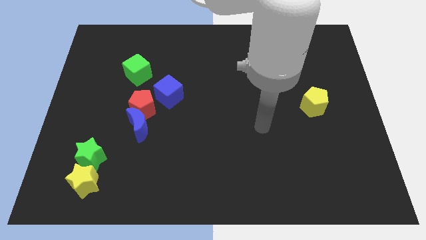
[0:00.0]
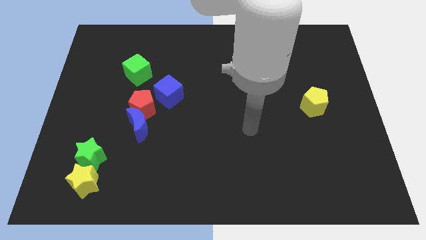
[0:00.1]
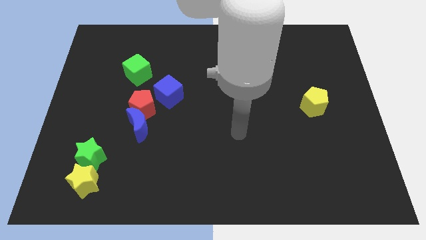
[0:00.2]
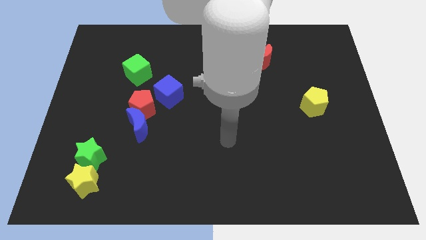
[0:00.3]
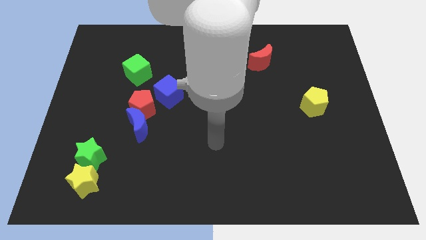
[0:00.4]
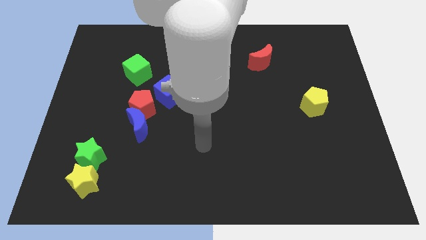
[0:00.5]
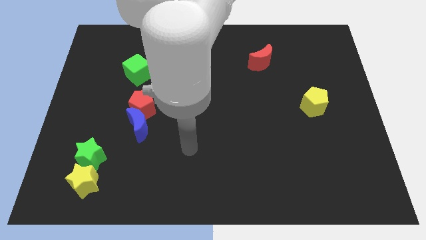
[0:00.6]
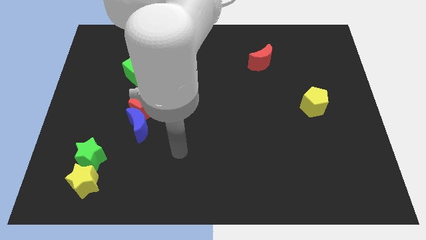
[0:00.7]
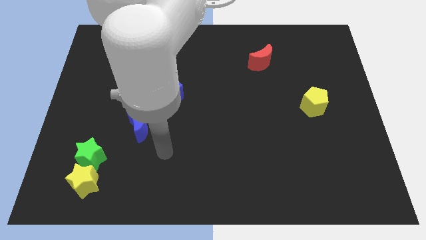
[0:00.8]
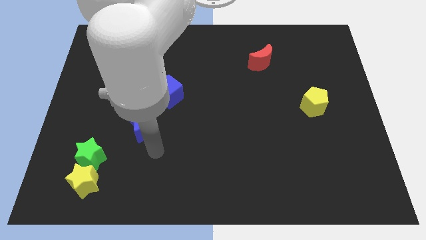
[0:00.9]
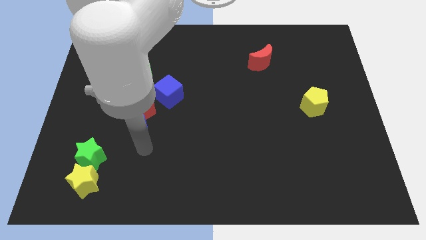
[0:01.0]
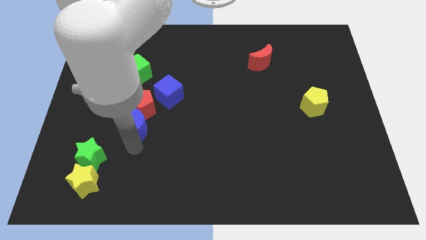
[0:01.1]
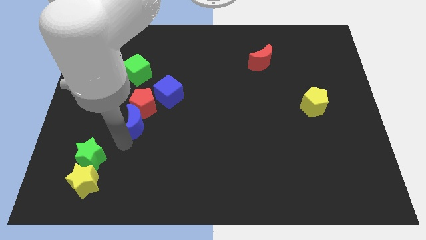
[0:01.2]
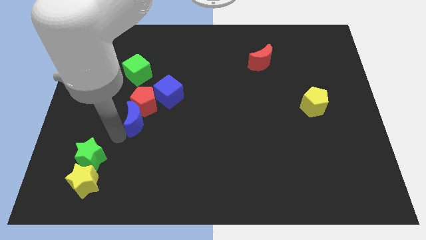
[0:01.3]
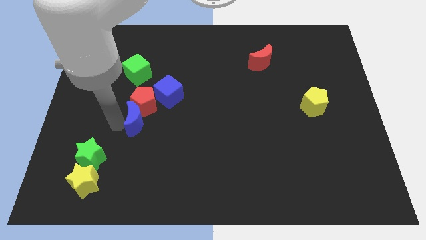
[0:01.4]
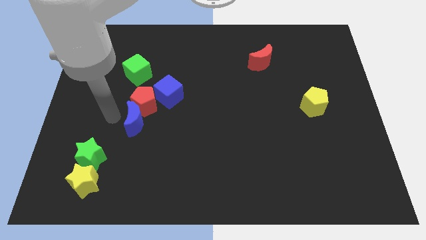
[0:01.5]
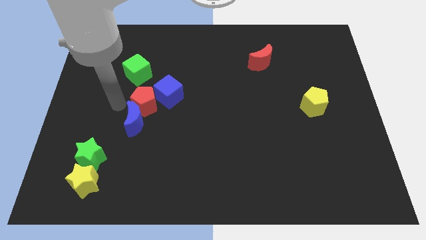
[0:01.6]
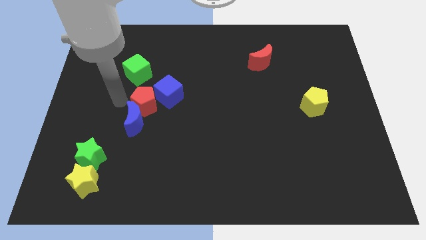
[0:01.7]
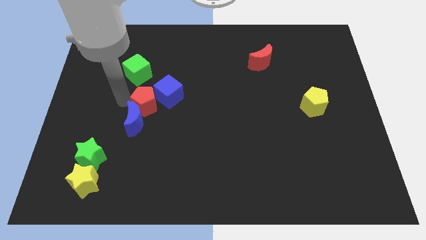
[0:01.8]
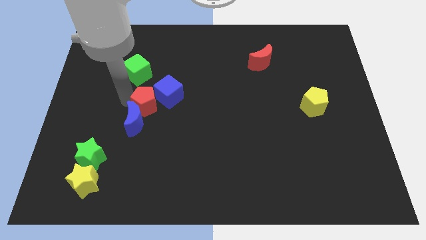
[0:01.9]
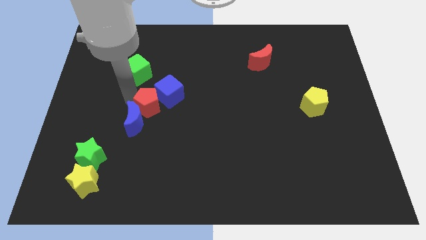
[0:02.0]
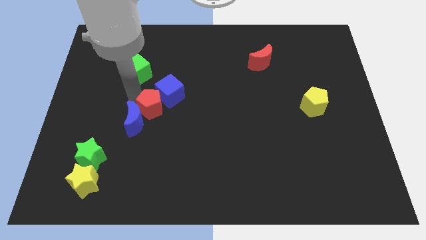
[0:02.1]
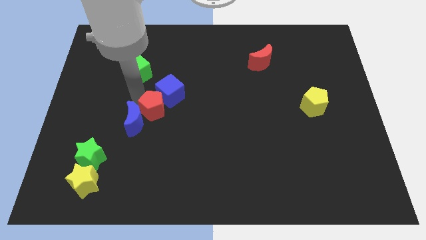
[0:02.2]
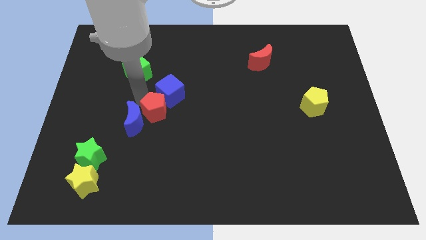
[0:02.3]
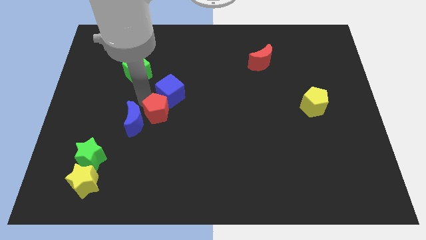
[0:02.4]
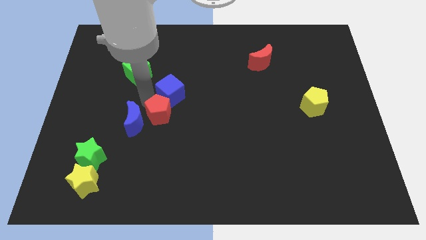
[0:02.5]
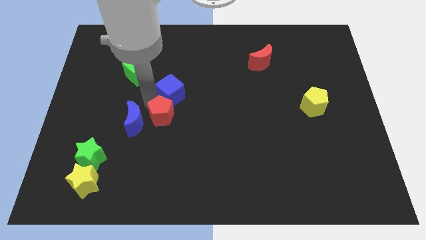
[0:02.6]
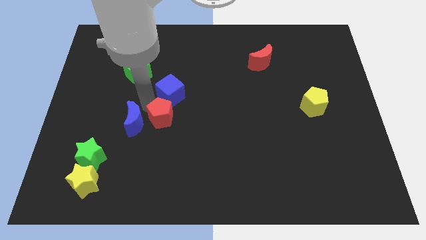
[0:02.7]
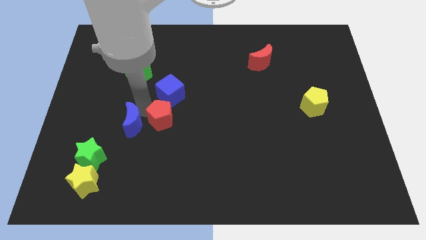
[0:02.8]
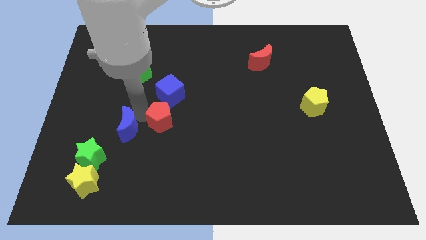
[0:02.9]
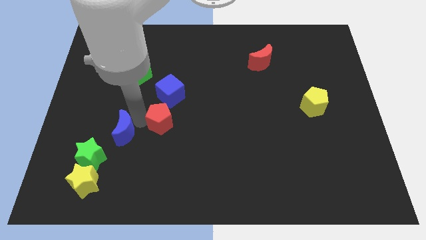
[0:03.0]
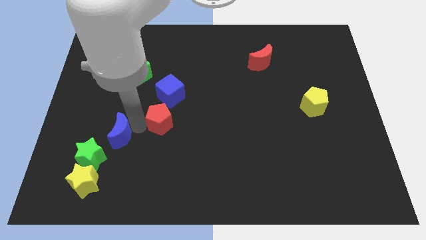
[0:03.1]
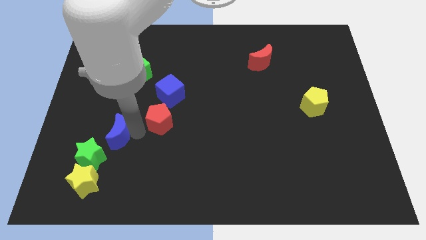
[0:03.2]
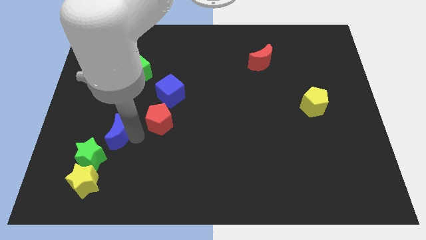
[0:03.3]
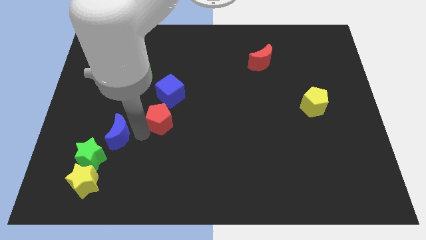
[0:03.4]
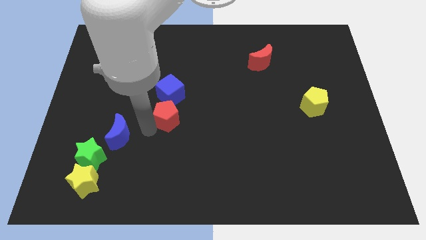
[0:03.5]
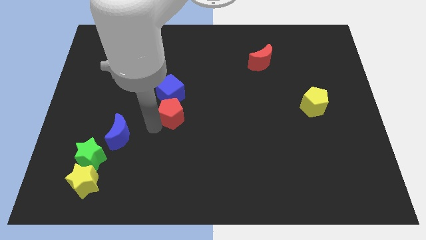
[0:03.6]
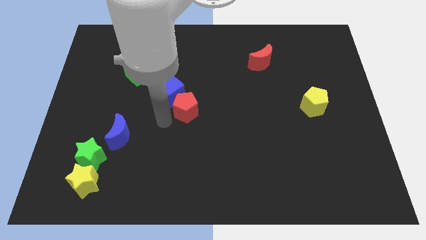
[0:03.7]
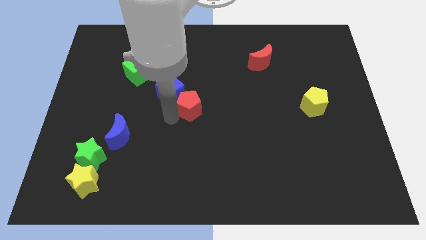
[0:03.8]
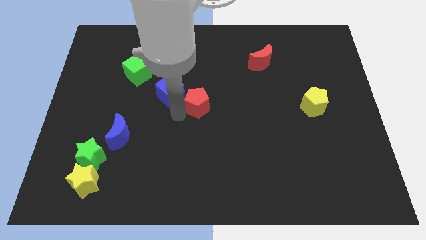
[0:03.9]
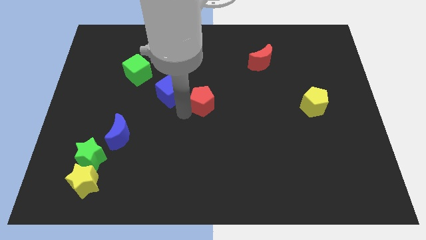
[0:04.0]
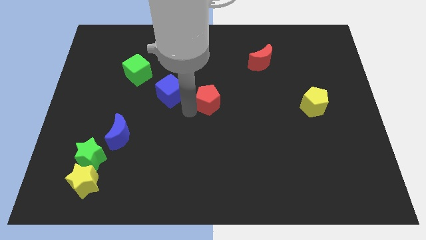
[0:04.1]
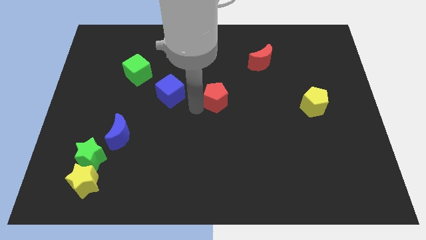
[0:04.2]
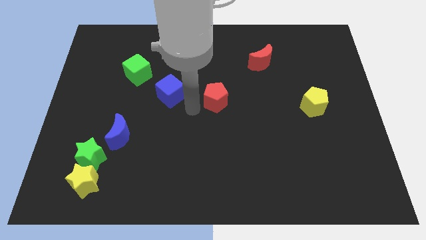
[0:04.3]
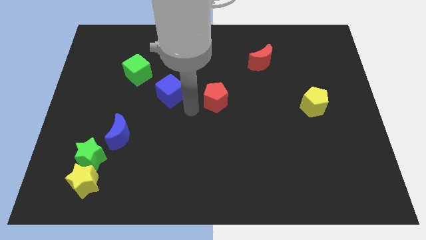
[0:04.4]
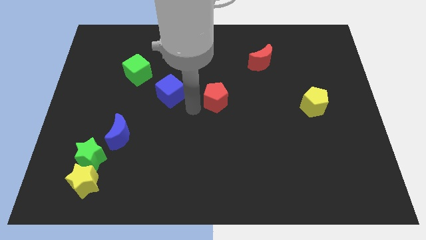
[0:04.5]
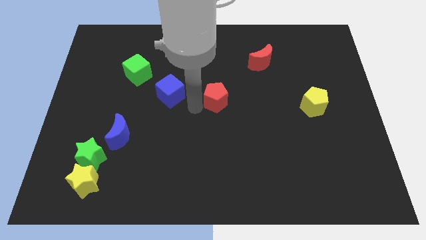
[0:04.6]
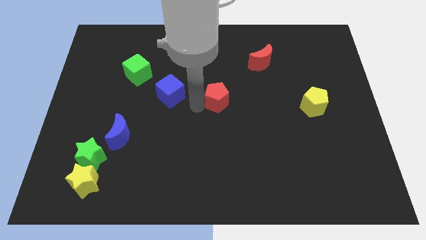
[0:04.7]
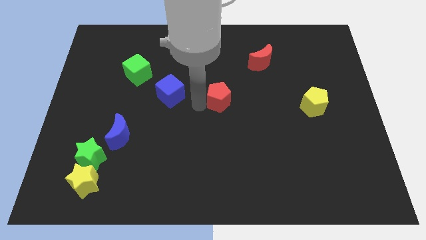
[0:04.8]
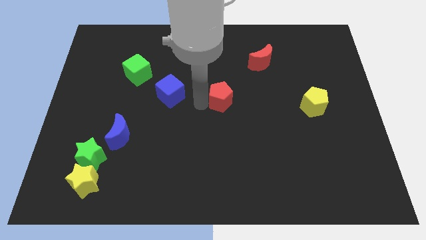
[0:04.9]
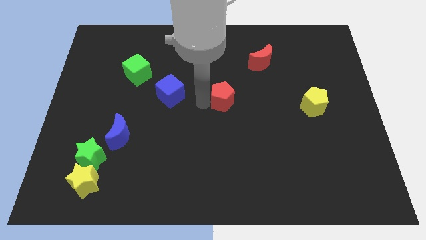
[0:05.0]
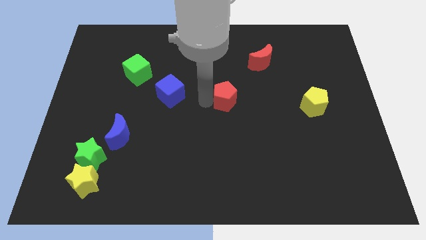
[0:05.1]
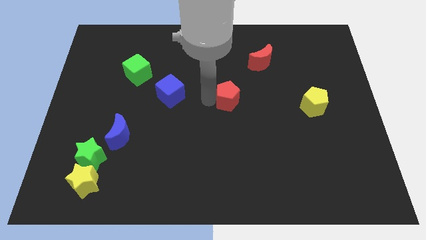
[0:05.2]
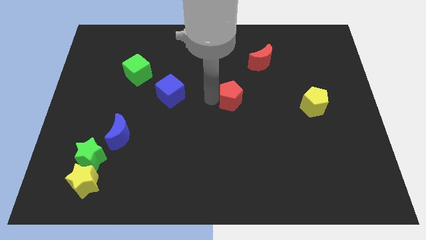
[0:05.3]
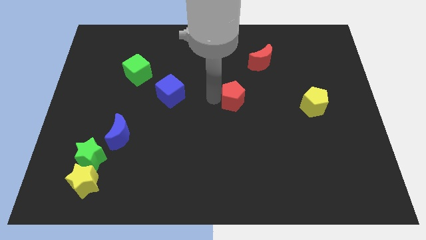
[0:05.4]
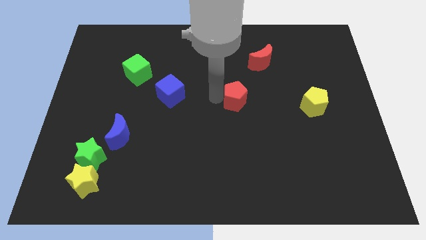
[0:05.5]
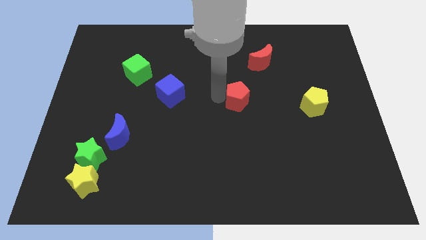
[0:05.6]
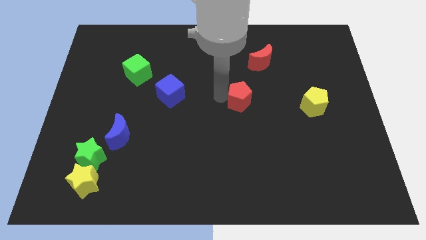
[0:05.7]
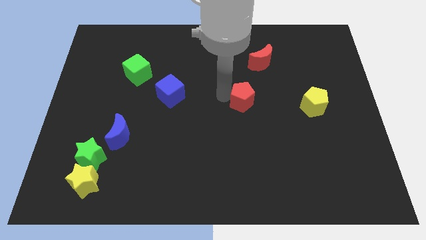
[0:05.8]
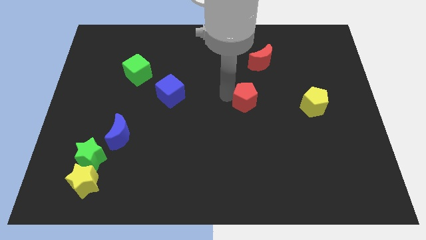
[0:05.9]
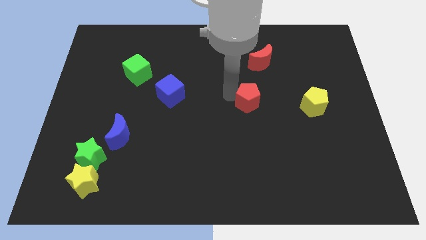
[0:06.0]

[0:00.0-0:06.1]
slide the red pentagon to the bottom of the red moon

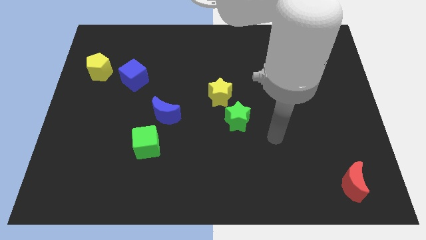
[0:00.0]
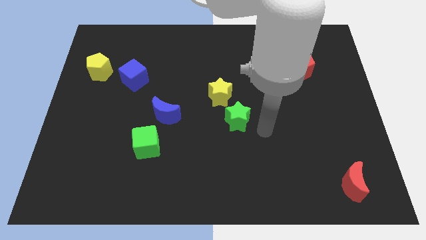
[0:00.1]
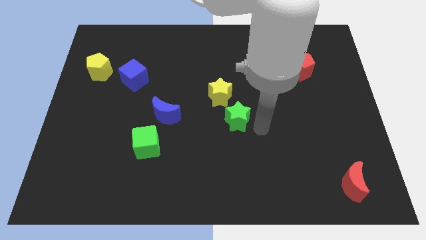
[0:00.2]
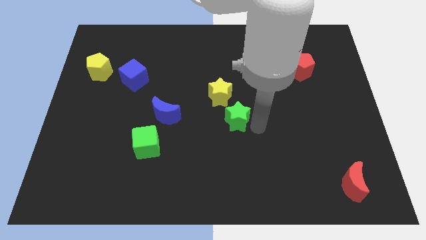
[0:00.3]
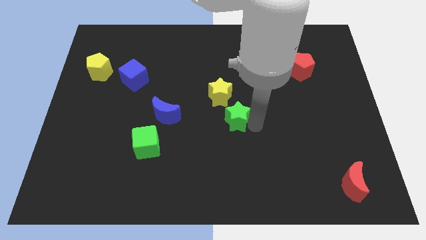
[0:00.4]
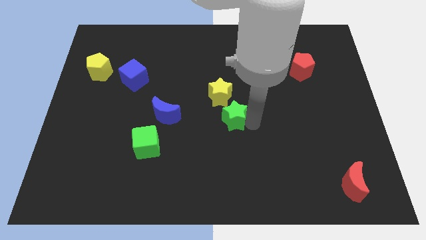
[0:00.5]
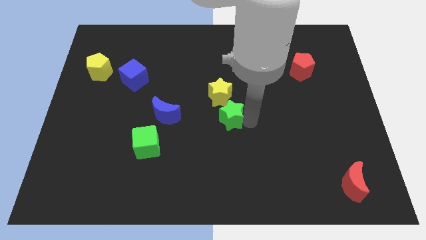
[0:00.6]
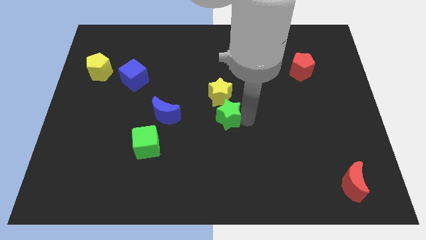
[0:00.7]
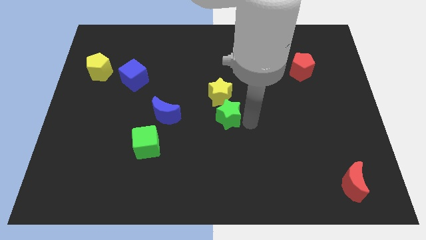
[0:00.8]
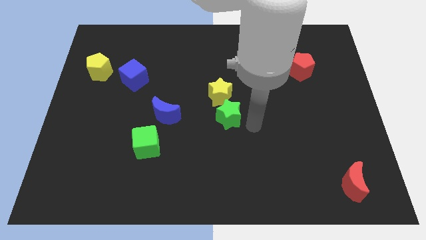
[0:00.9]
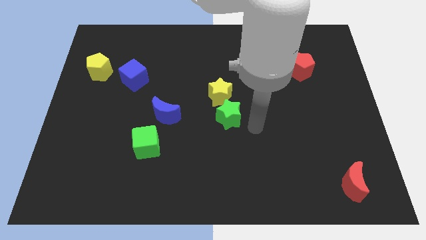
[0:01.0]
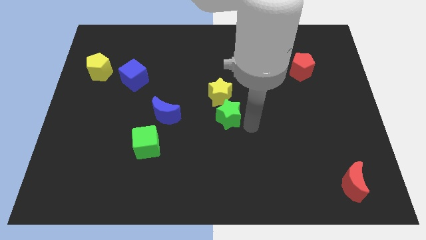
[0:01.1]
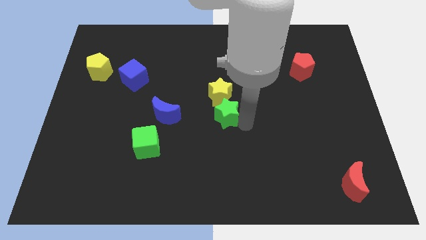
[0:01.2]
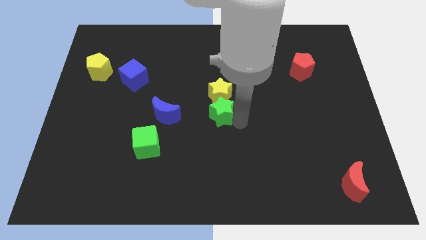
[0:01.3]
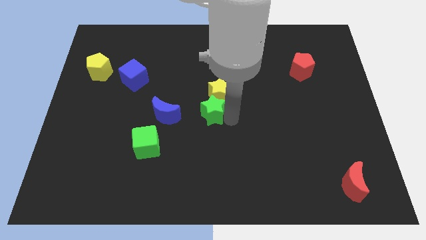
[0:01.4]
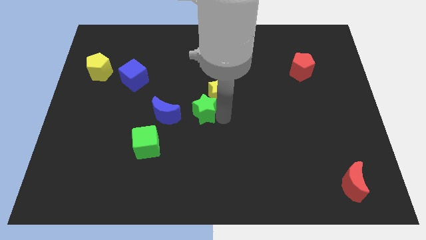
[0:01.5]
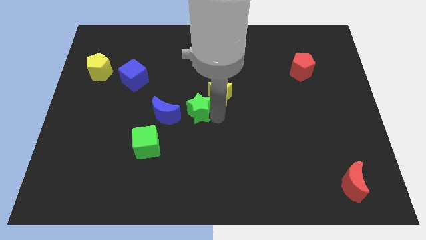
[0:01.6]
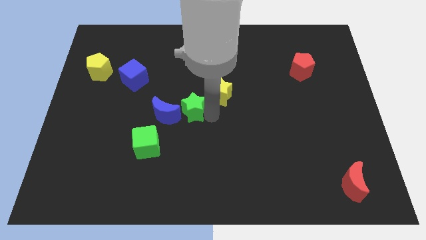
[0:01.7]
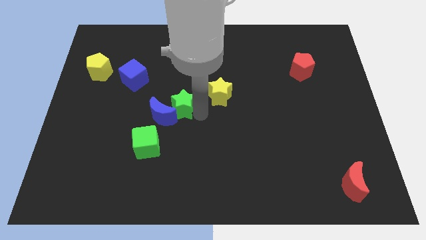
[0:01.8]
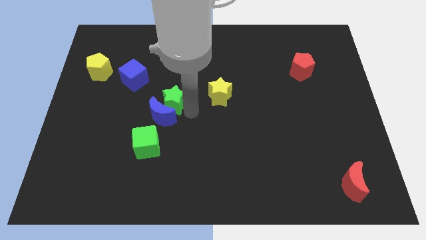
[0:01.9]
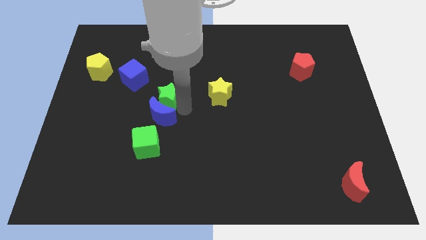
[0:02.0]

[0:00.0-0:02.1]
slide the green star to the bottom right side of the blue cube
